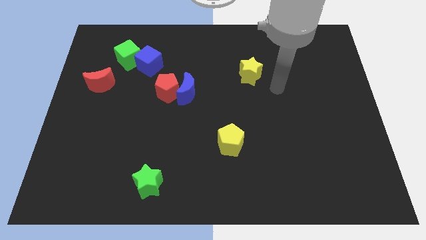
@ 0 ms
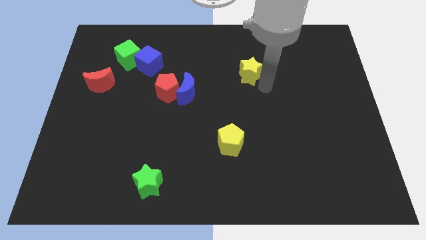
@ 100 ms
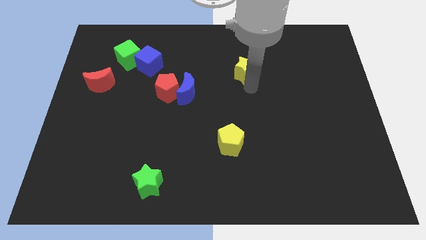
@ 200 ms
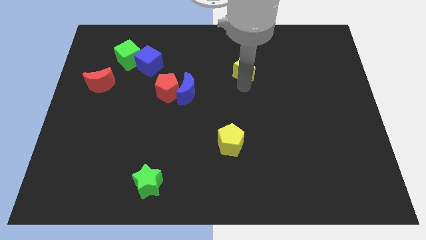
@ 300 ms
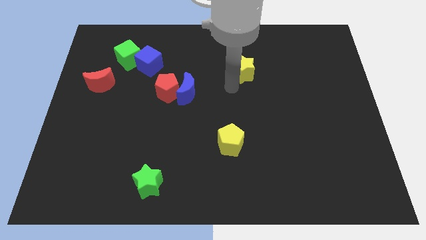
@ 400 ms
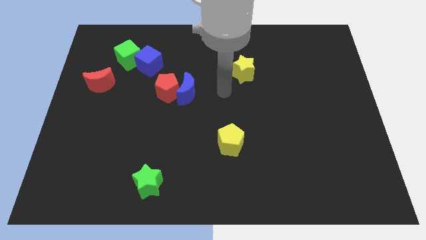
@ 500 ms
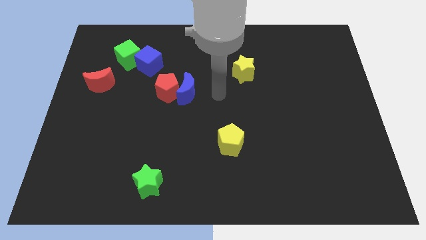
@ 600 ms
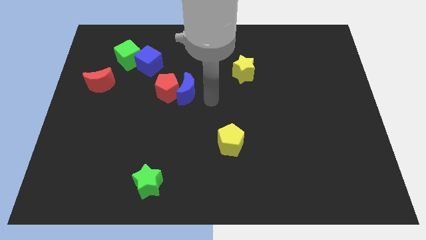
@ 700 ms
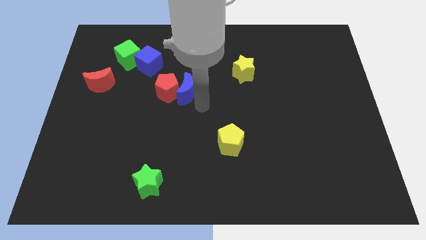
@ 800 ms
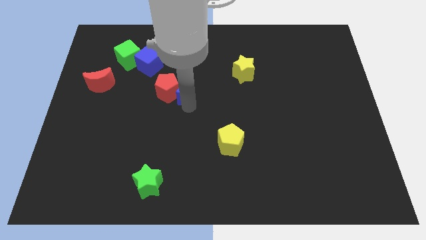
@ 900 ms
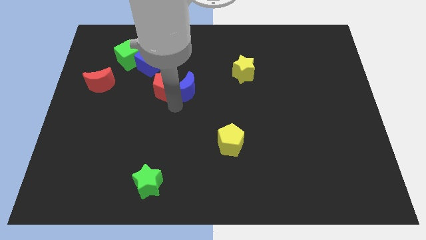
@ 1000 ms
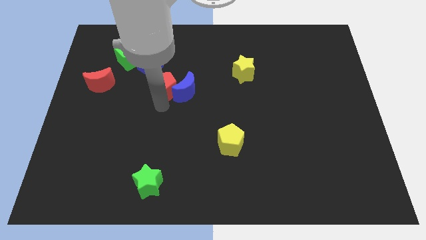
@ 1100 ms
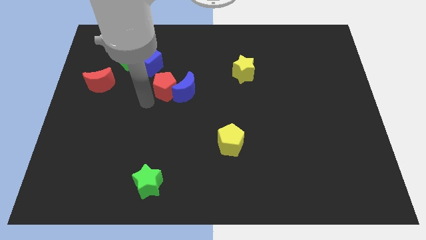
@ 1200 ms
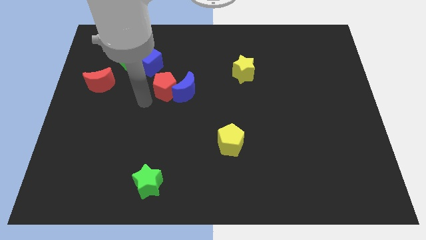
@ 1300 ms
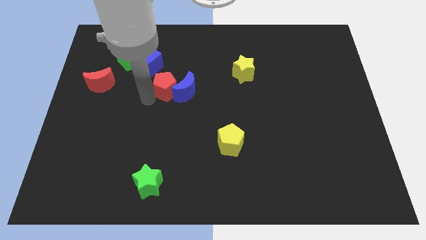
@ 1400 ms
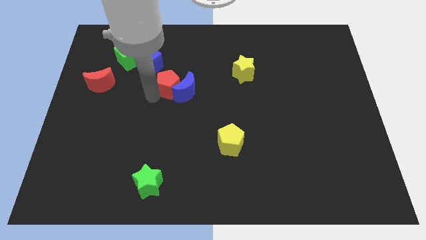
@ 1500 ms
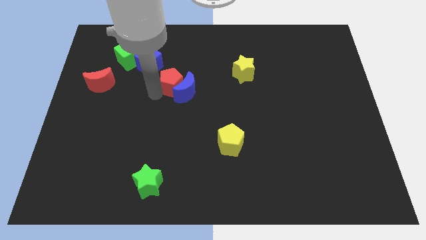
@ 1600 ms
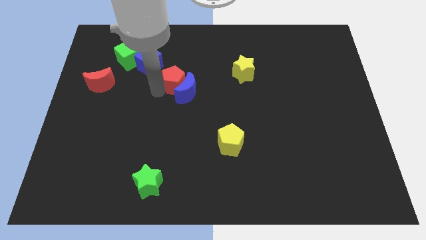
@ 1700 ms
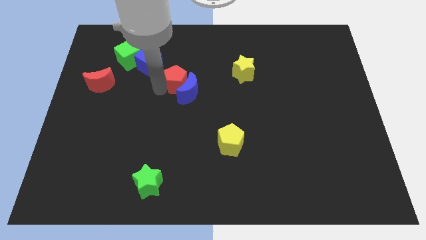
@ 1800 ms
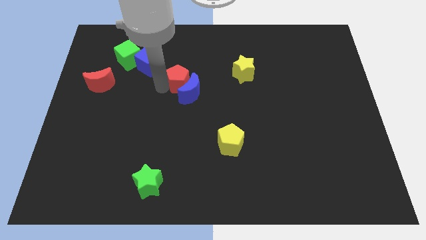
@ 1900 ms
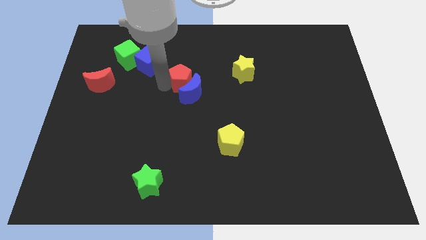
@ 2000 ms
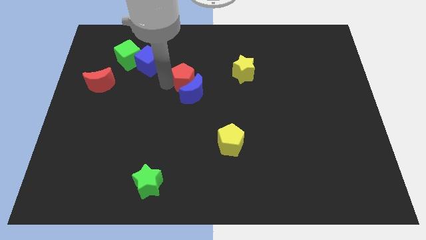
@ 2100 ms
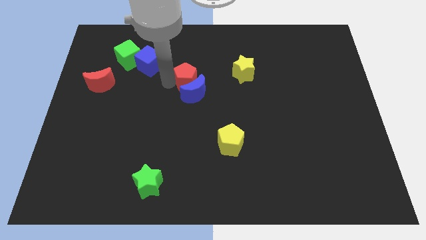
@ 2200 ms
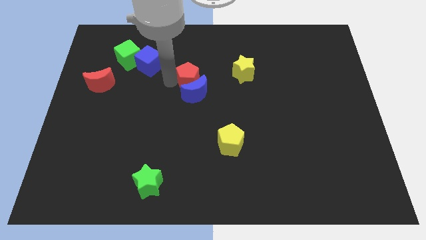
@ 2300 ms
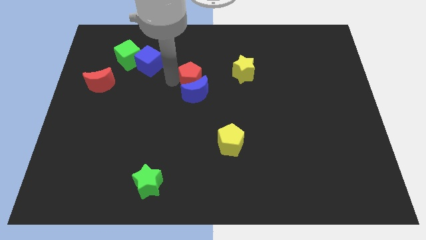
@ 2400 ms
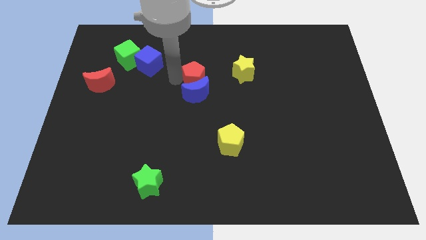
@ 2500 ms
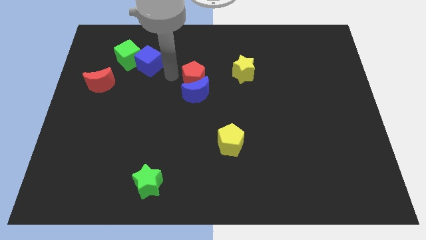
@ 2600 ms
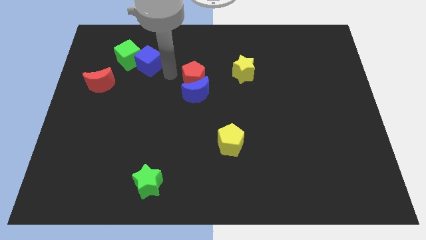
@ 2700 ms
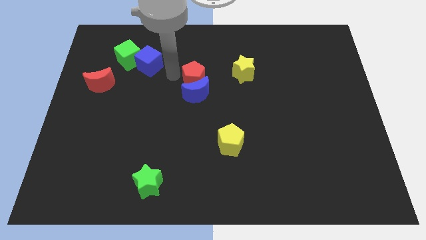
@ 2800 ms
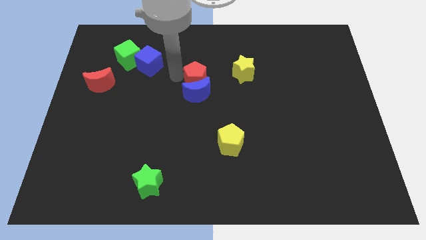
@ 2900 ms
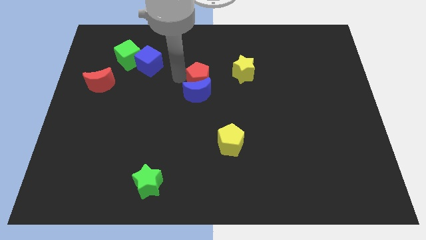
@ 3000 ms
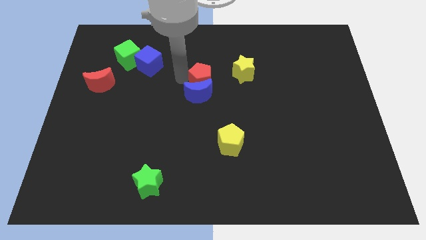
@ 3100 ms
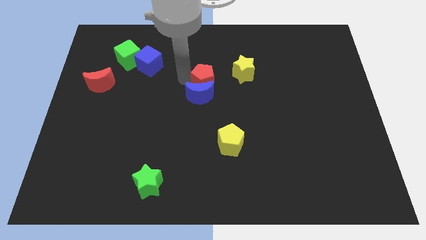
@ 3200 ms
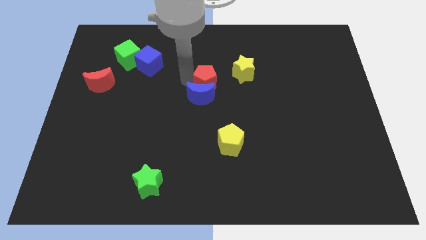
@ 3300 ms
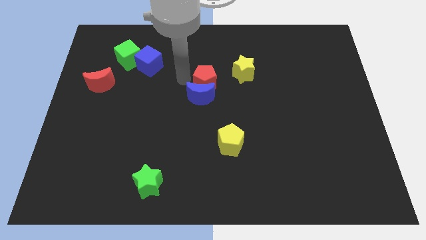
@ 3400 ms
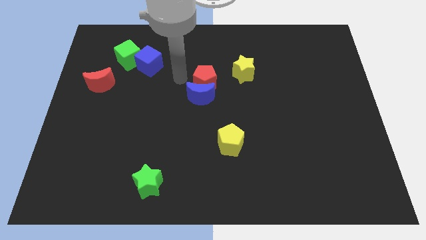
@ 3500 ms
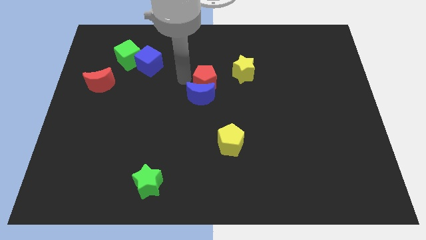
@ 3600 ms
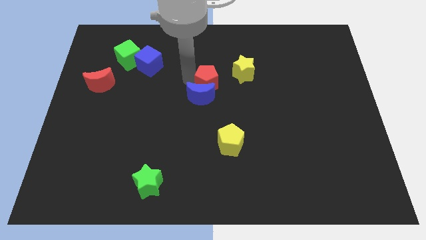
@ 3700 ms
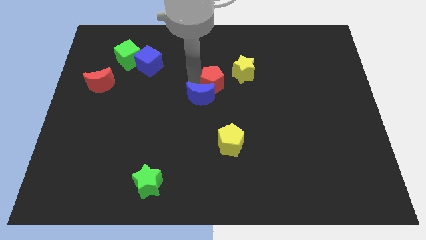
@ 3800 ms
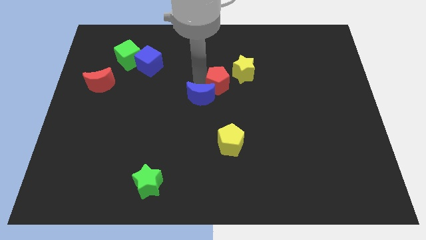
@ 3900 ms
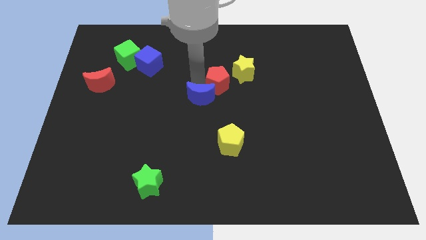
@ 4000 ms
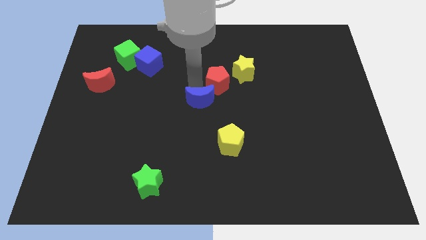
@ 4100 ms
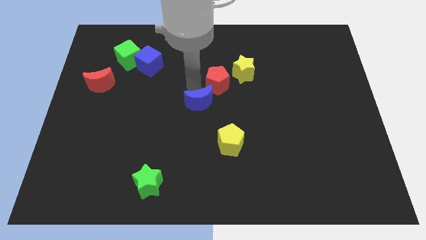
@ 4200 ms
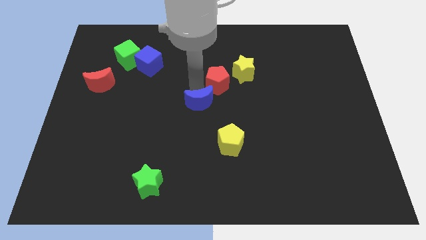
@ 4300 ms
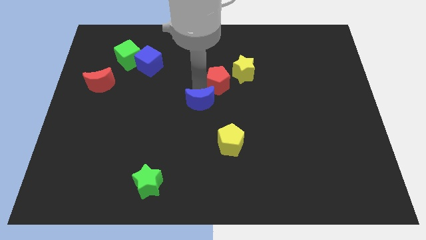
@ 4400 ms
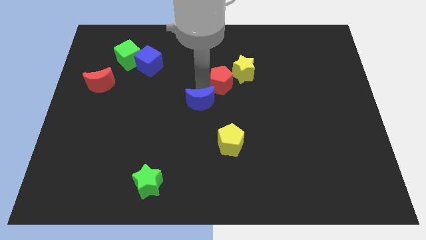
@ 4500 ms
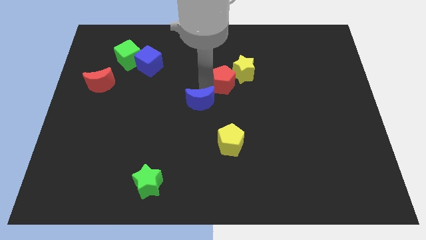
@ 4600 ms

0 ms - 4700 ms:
push the red pentagon close to the yellow star

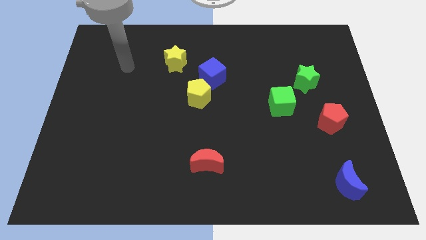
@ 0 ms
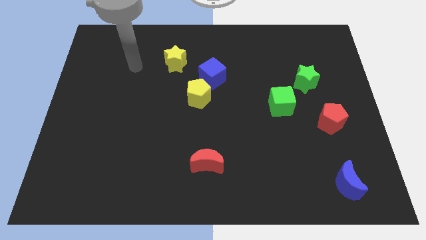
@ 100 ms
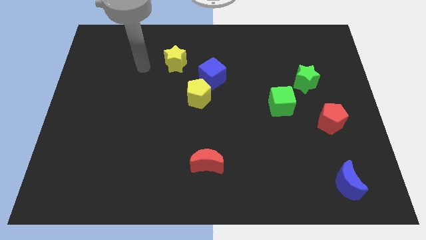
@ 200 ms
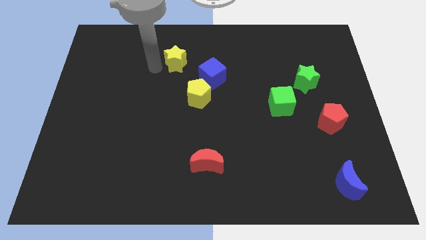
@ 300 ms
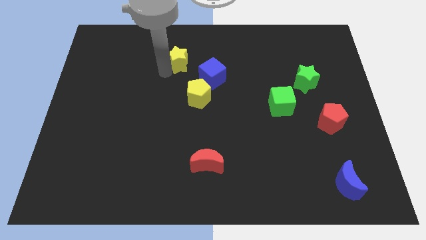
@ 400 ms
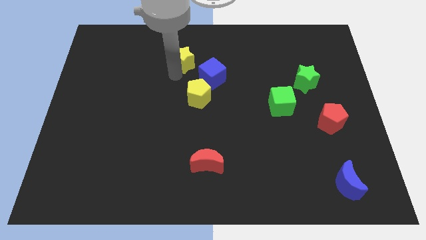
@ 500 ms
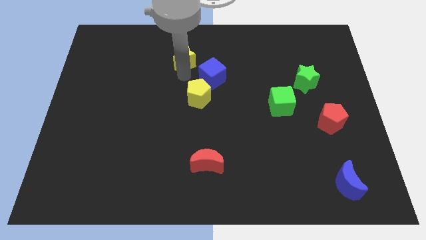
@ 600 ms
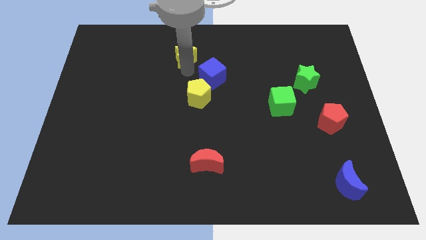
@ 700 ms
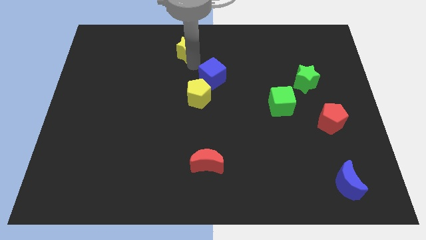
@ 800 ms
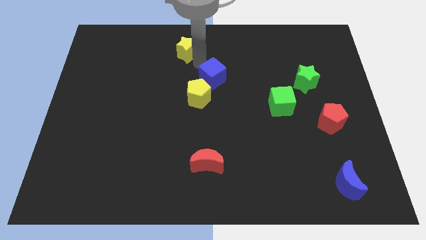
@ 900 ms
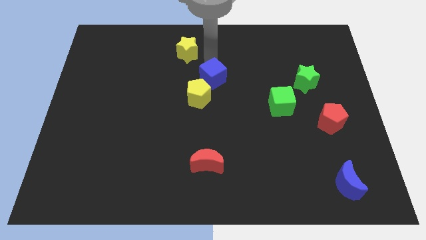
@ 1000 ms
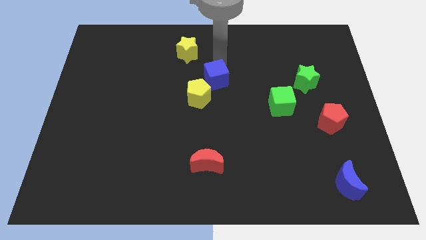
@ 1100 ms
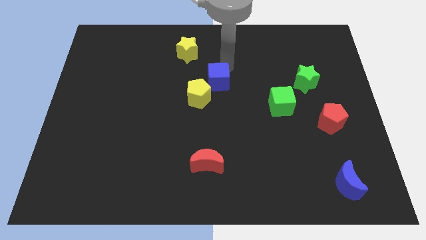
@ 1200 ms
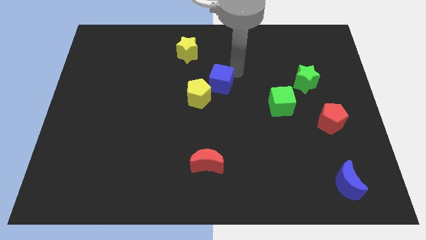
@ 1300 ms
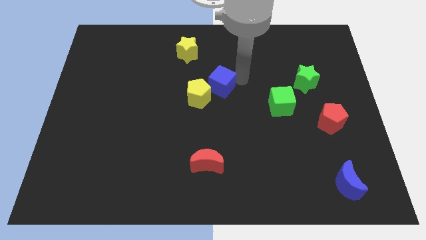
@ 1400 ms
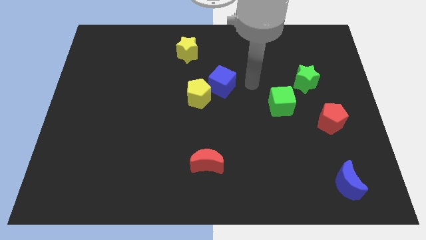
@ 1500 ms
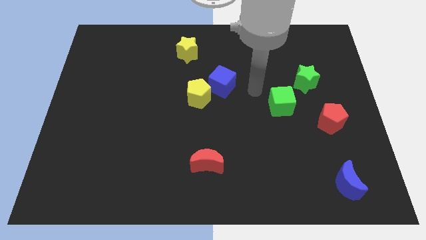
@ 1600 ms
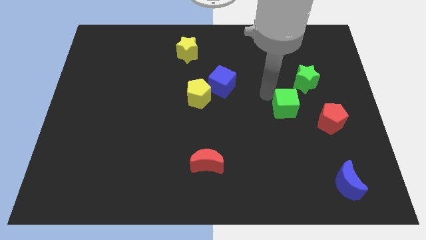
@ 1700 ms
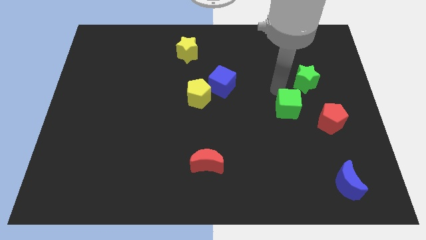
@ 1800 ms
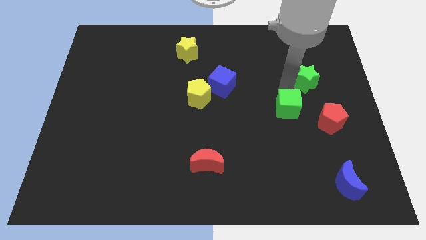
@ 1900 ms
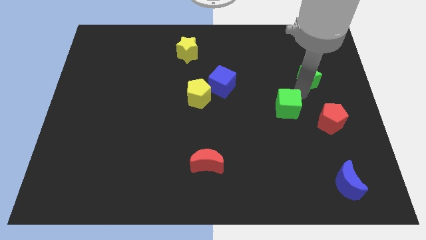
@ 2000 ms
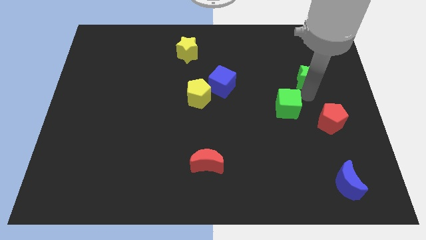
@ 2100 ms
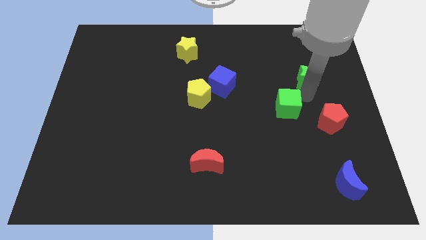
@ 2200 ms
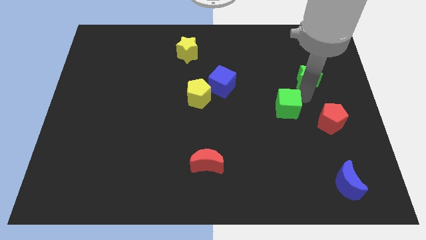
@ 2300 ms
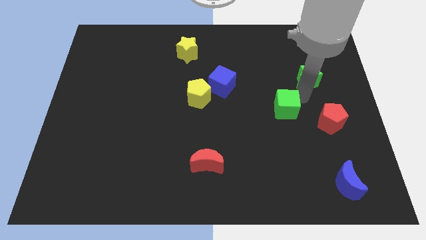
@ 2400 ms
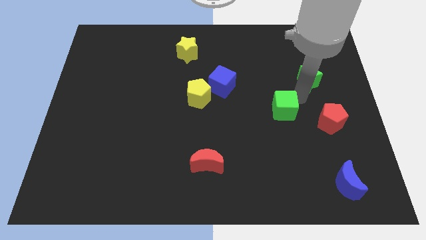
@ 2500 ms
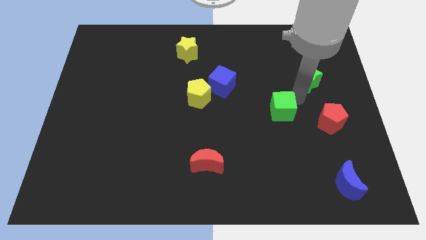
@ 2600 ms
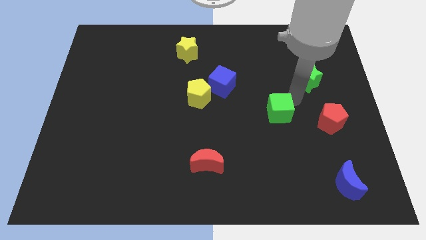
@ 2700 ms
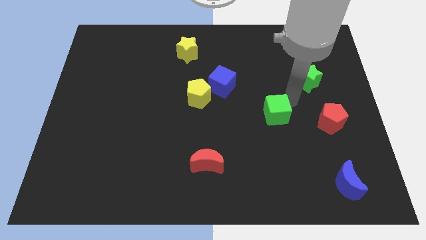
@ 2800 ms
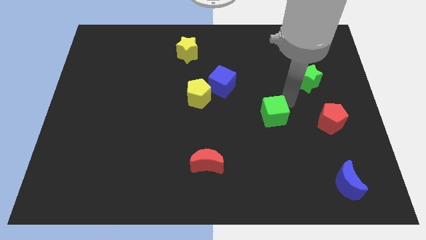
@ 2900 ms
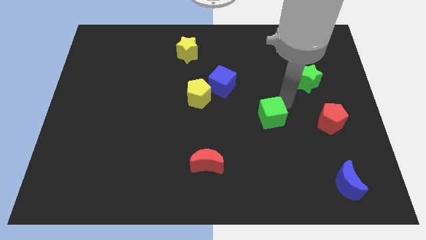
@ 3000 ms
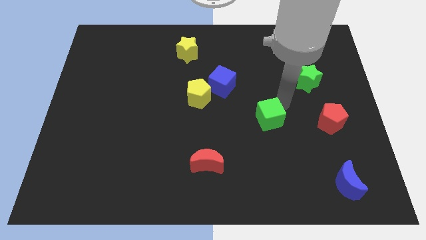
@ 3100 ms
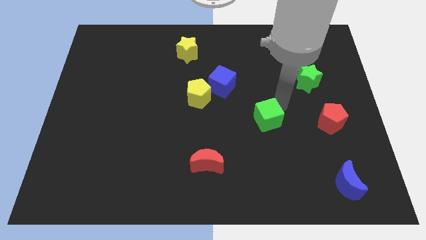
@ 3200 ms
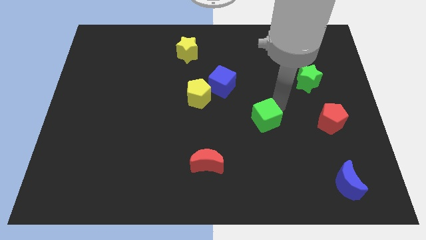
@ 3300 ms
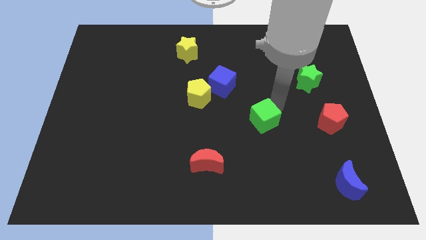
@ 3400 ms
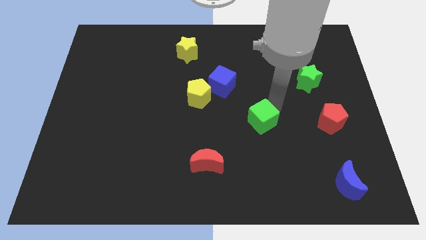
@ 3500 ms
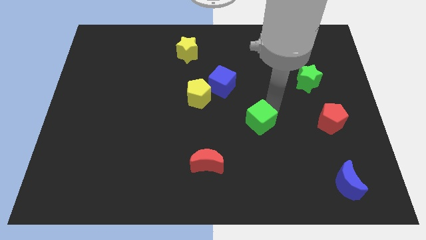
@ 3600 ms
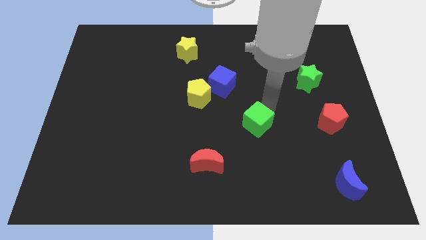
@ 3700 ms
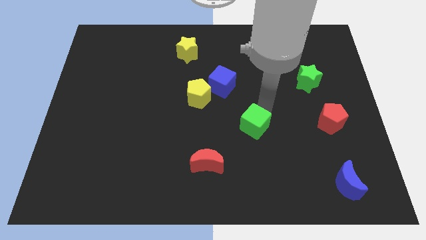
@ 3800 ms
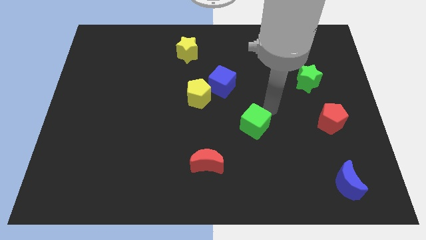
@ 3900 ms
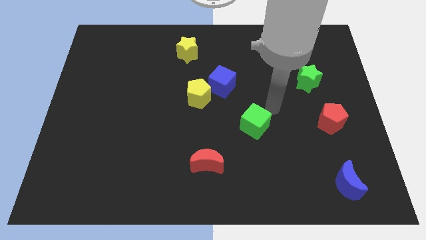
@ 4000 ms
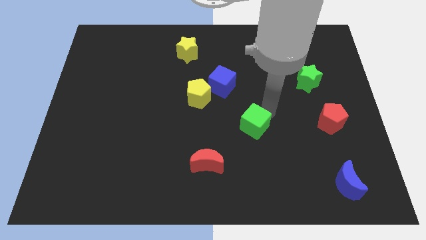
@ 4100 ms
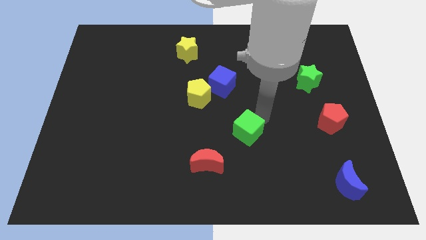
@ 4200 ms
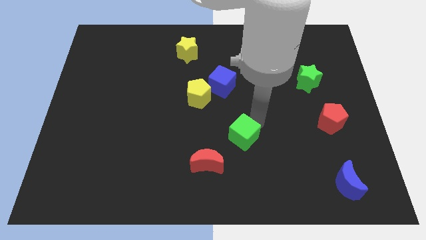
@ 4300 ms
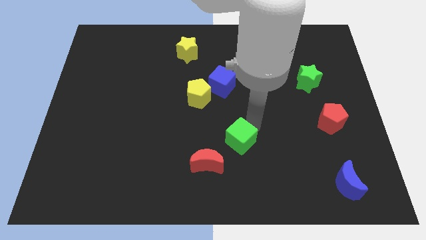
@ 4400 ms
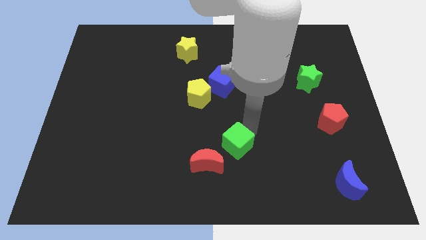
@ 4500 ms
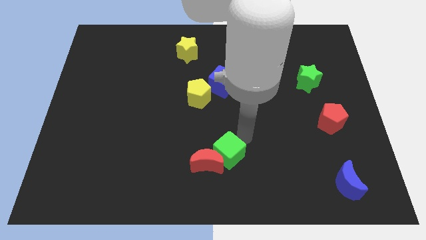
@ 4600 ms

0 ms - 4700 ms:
slide the green cube next to the red moon
